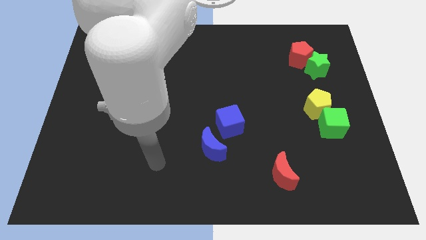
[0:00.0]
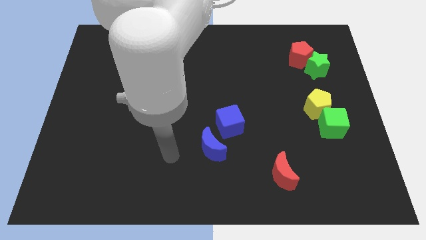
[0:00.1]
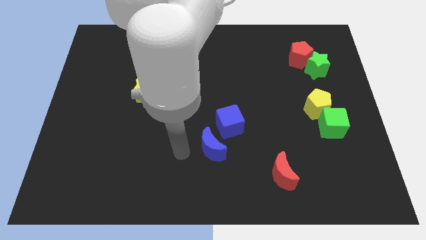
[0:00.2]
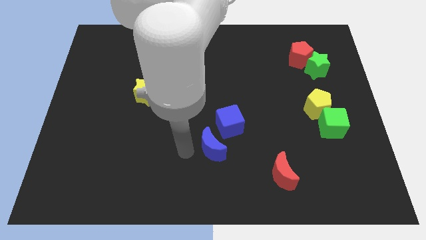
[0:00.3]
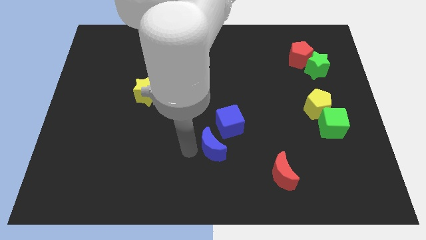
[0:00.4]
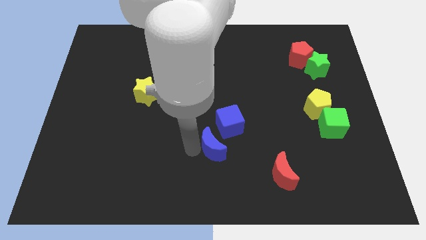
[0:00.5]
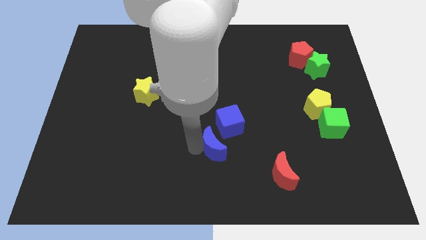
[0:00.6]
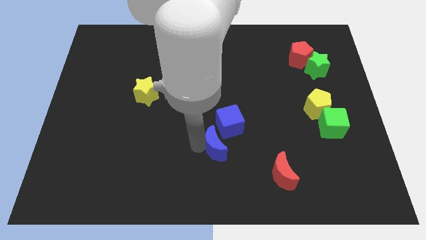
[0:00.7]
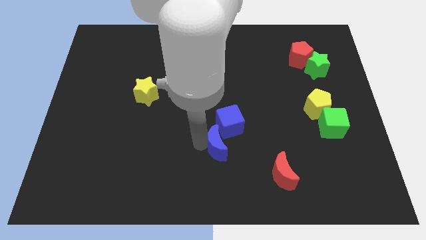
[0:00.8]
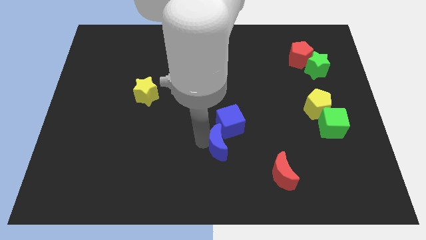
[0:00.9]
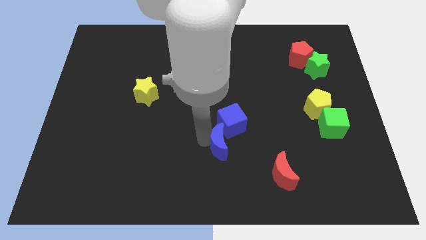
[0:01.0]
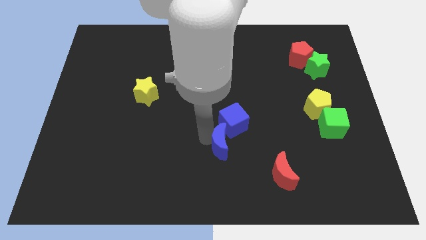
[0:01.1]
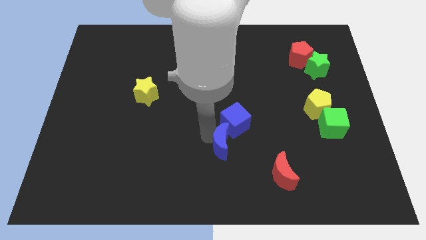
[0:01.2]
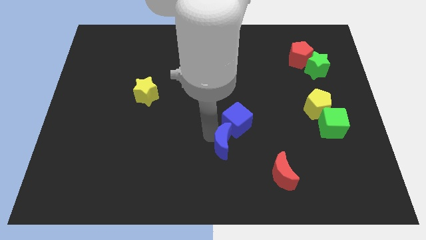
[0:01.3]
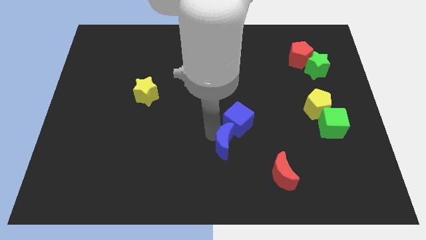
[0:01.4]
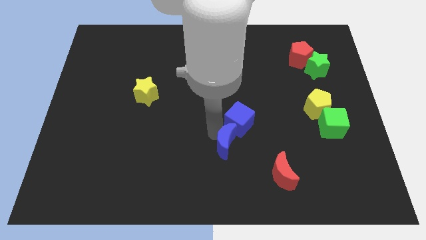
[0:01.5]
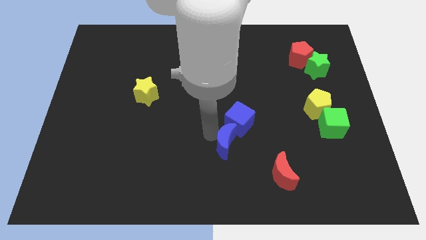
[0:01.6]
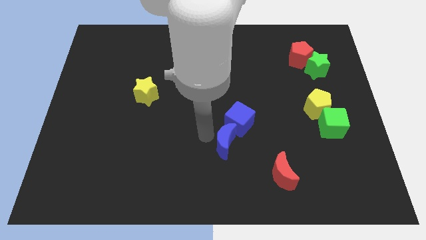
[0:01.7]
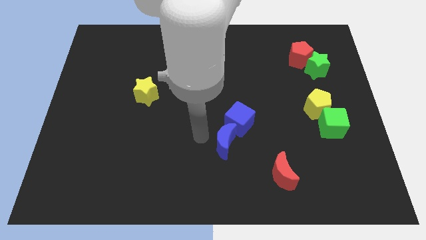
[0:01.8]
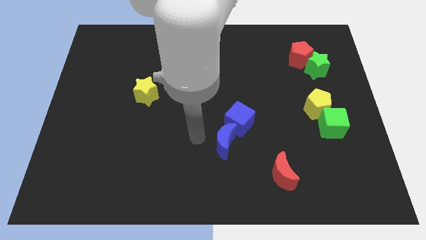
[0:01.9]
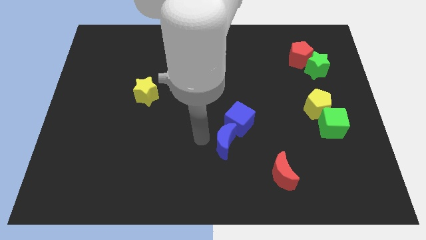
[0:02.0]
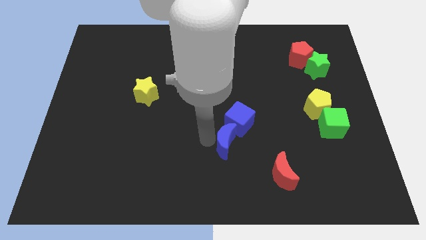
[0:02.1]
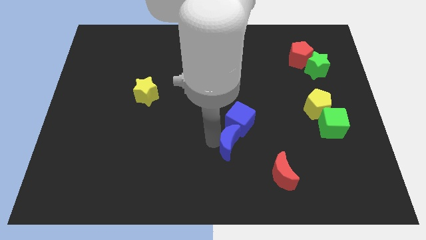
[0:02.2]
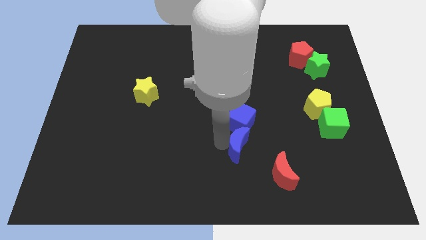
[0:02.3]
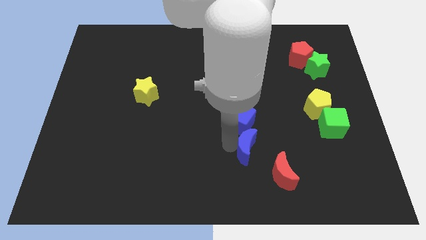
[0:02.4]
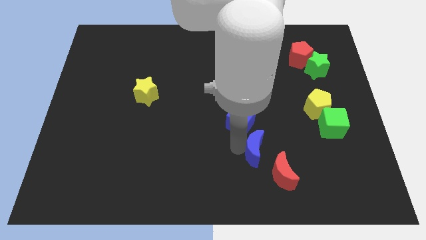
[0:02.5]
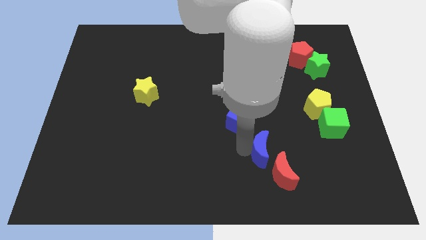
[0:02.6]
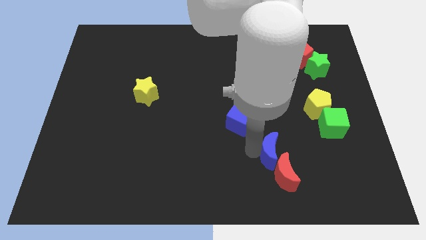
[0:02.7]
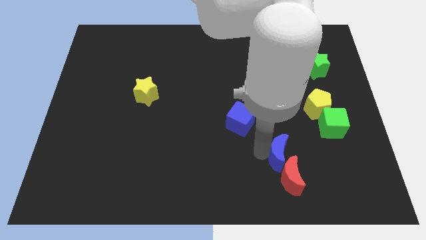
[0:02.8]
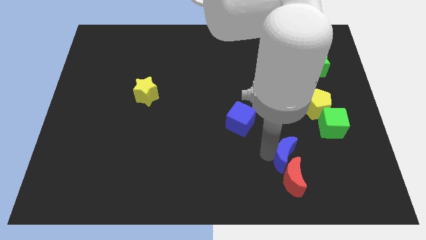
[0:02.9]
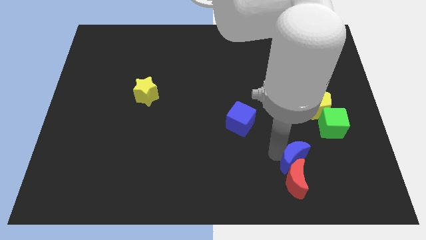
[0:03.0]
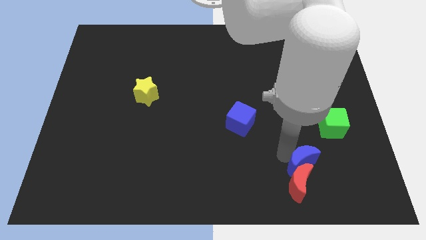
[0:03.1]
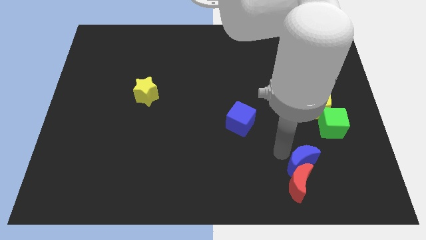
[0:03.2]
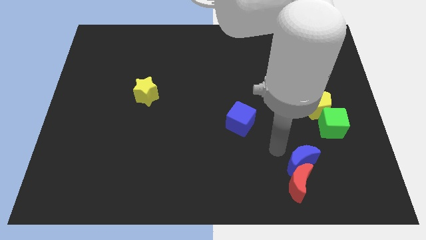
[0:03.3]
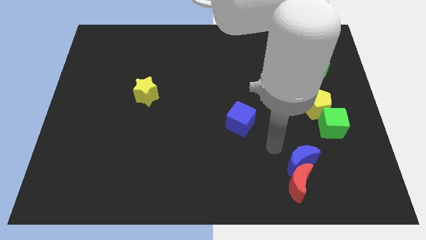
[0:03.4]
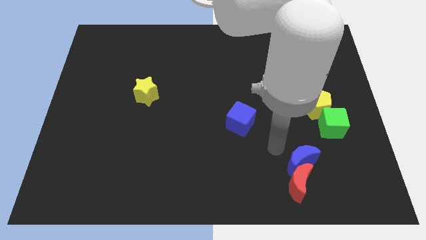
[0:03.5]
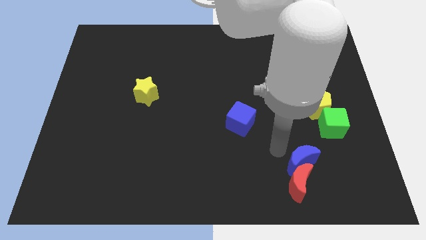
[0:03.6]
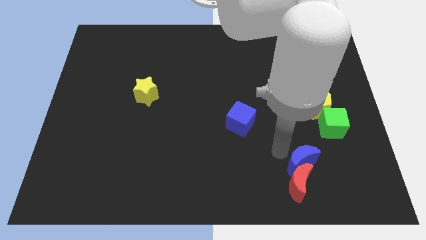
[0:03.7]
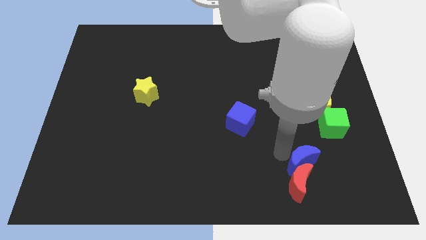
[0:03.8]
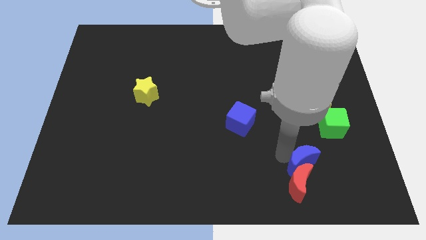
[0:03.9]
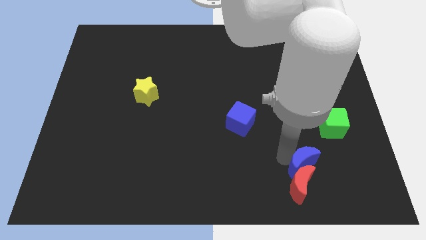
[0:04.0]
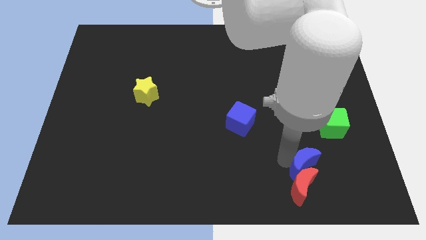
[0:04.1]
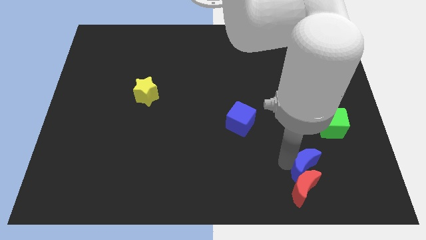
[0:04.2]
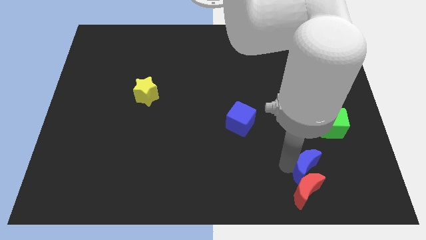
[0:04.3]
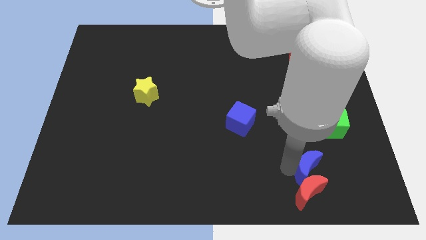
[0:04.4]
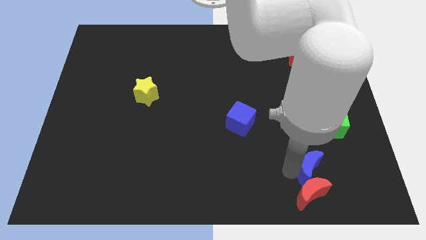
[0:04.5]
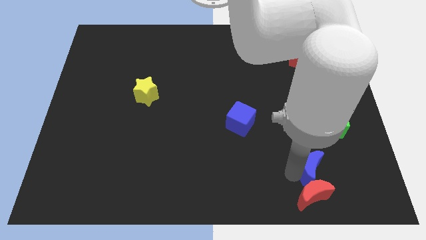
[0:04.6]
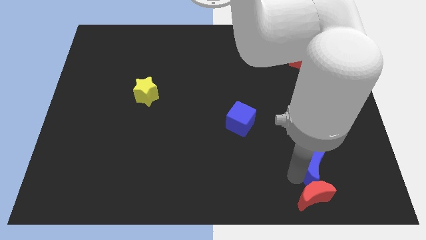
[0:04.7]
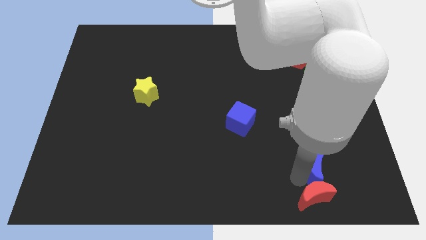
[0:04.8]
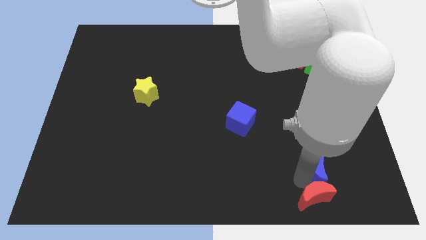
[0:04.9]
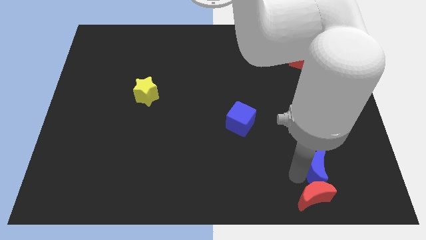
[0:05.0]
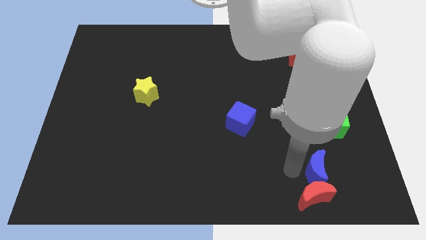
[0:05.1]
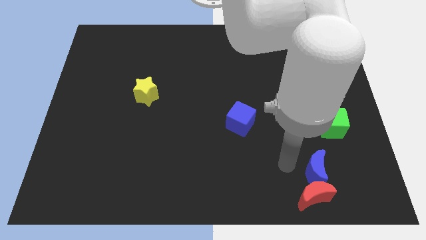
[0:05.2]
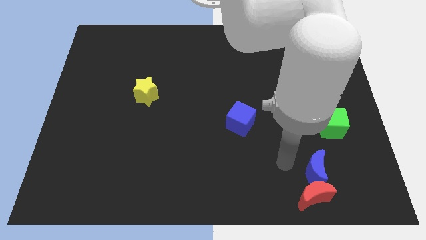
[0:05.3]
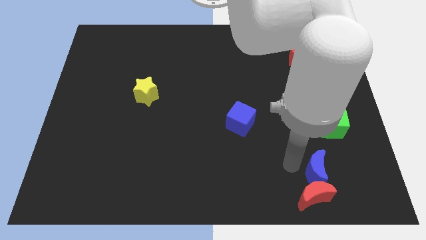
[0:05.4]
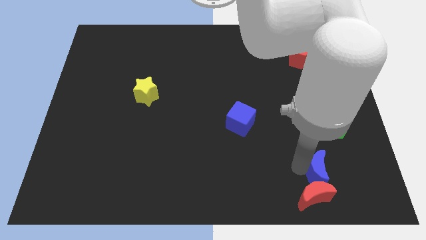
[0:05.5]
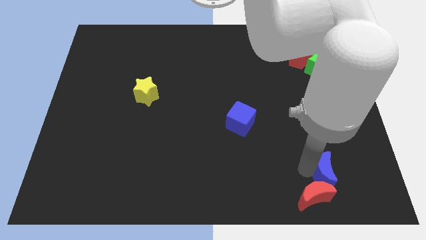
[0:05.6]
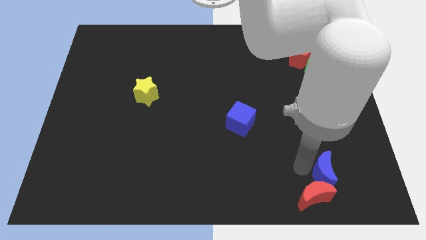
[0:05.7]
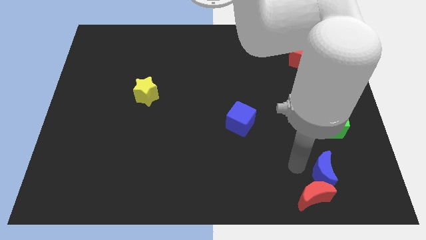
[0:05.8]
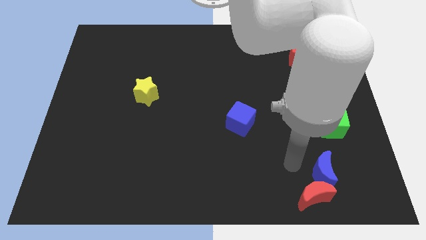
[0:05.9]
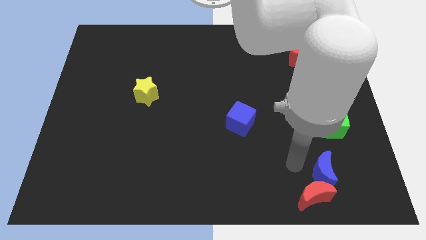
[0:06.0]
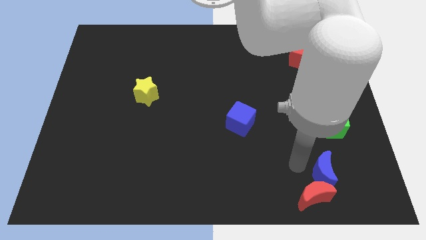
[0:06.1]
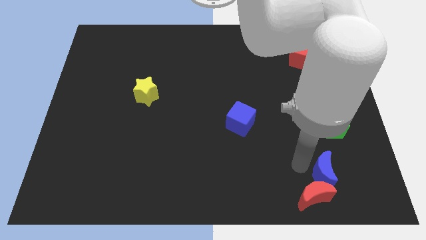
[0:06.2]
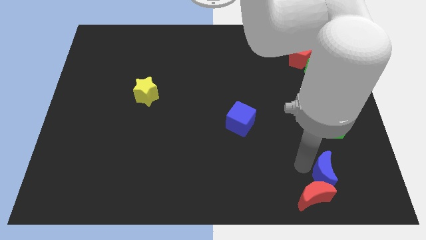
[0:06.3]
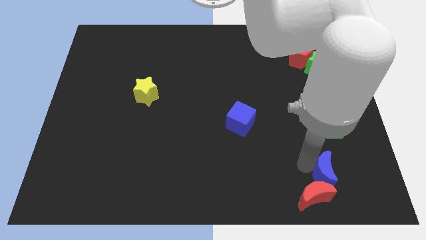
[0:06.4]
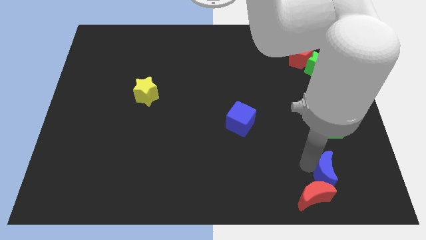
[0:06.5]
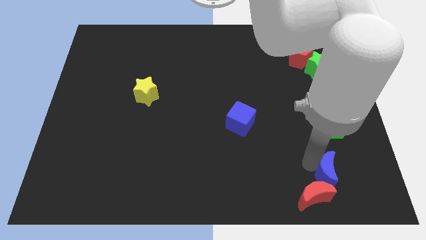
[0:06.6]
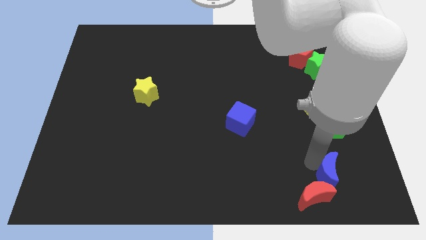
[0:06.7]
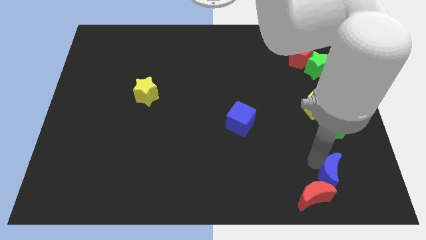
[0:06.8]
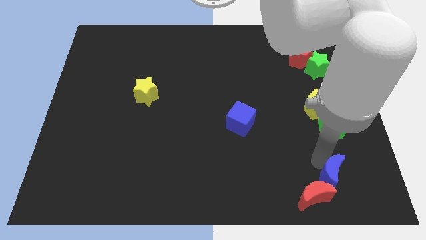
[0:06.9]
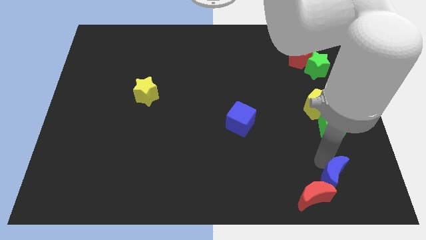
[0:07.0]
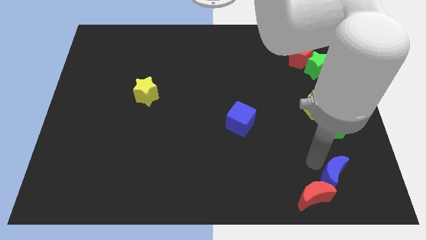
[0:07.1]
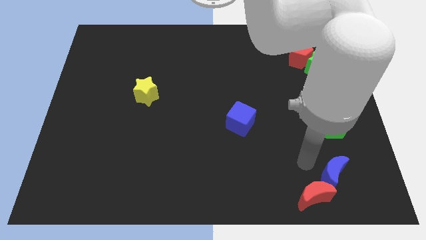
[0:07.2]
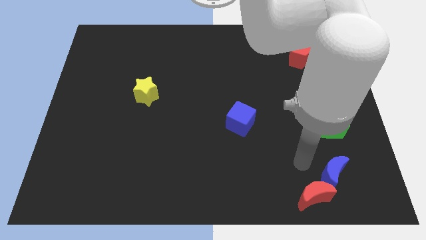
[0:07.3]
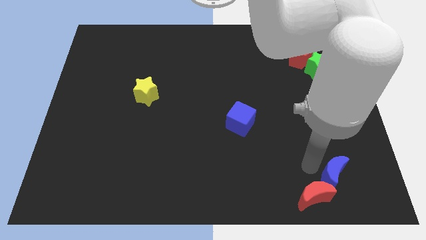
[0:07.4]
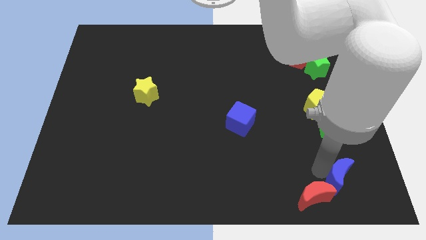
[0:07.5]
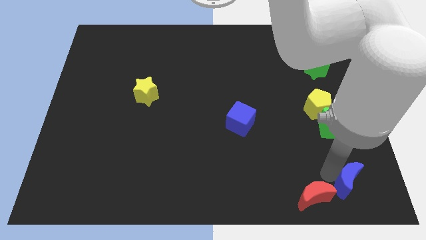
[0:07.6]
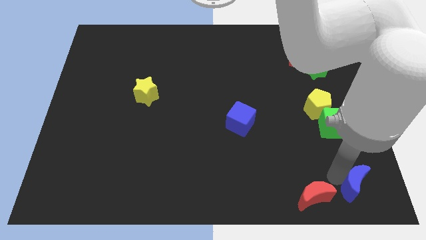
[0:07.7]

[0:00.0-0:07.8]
move the blue moon to the bottom right of the board
